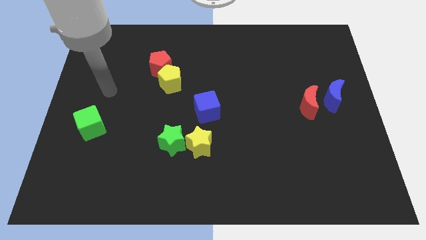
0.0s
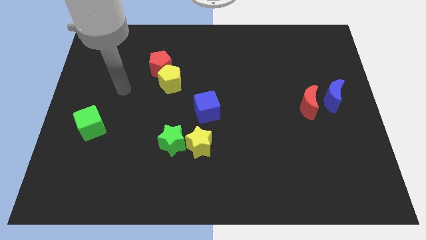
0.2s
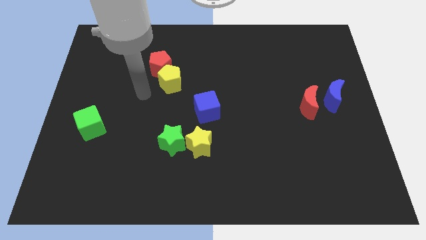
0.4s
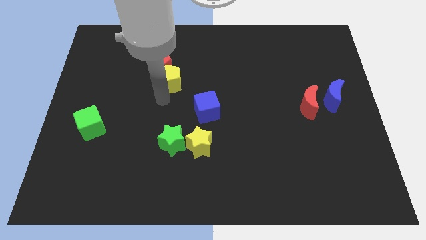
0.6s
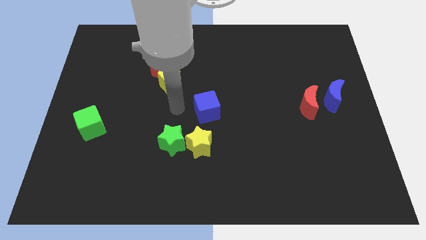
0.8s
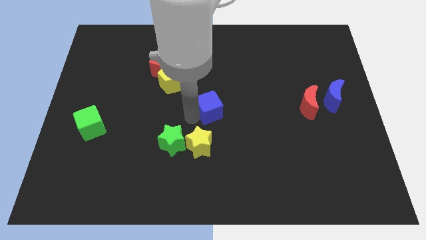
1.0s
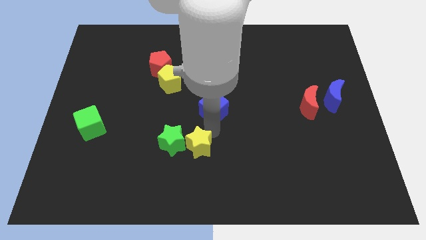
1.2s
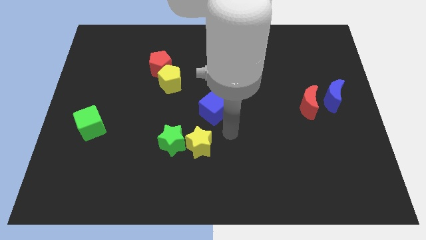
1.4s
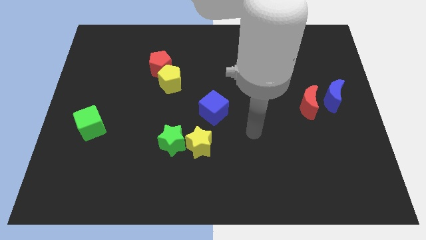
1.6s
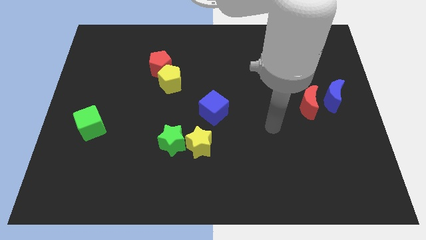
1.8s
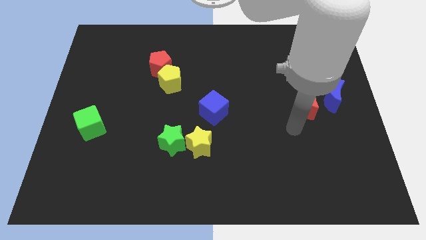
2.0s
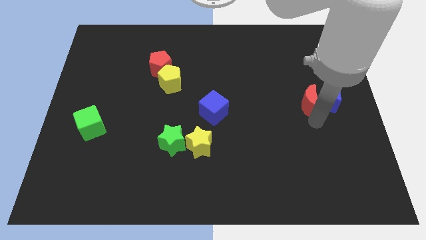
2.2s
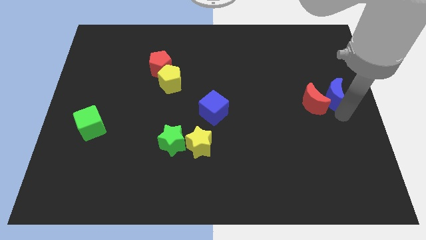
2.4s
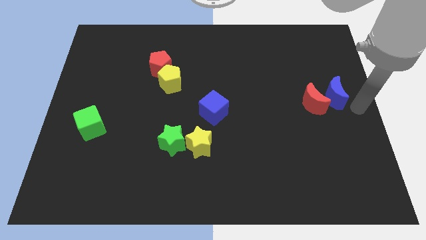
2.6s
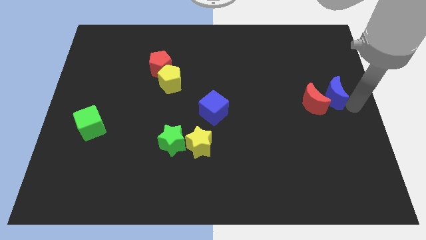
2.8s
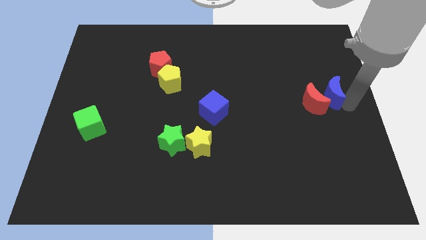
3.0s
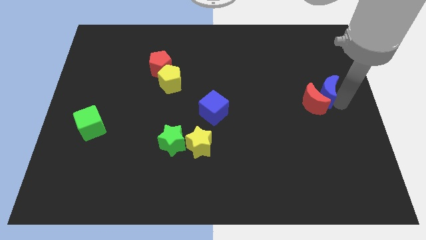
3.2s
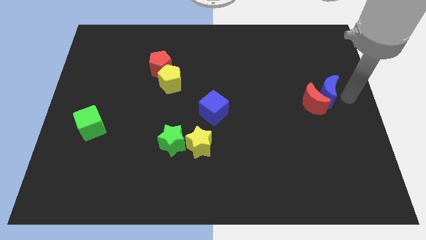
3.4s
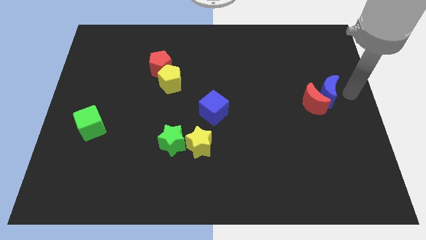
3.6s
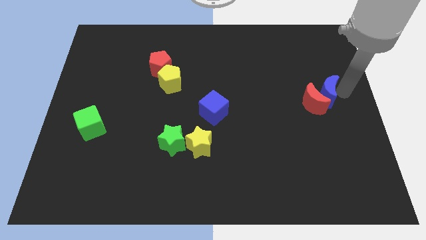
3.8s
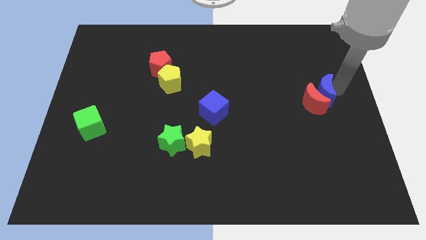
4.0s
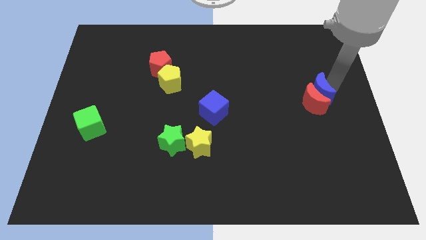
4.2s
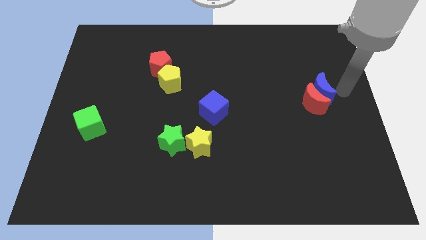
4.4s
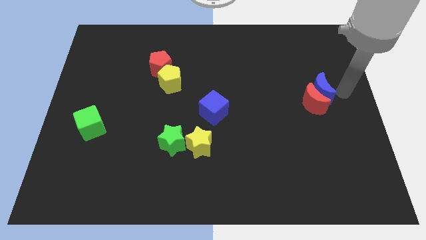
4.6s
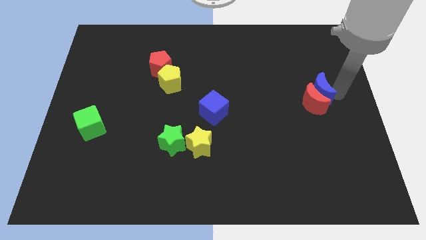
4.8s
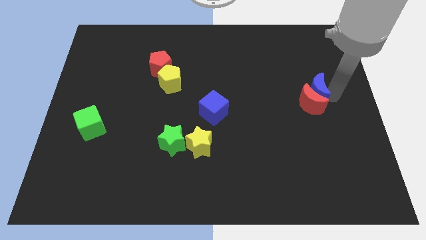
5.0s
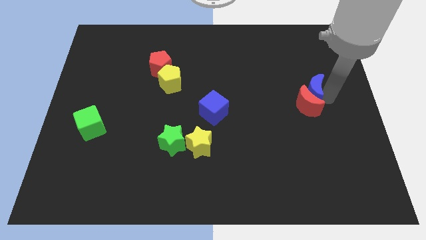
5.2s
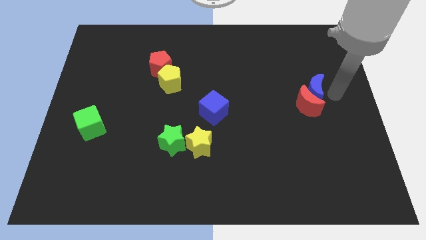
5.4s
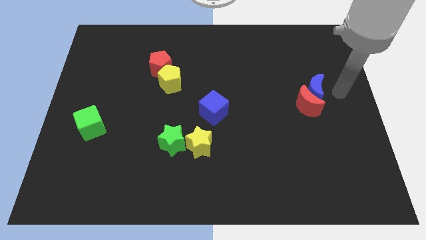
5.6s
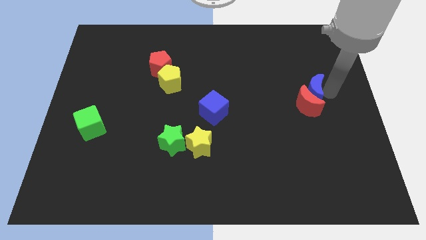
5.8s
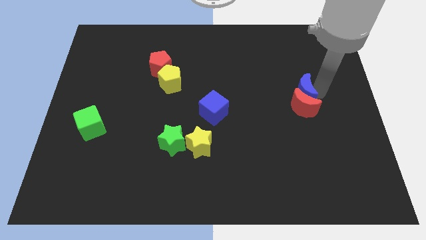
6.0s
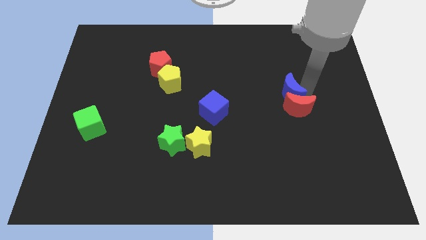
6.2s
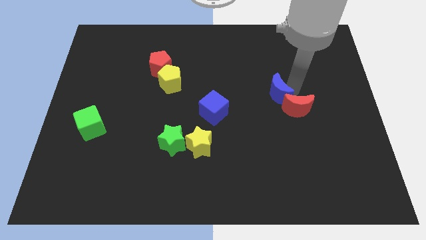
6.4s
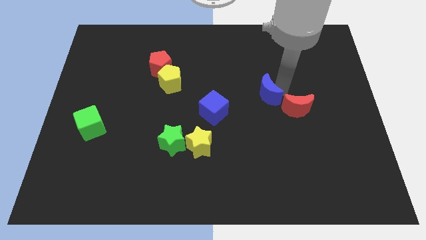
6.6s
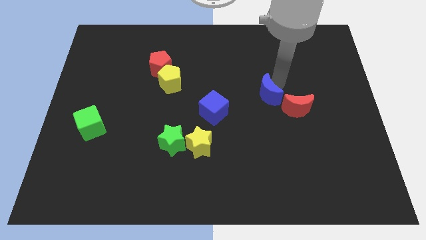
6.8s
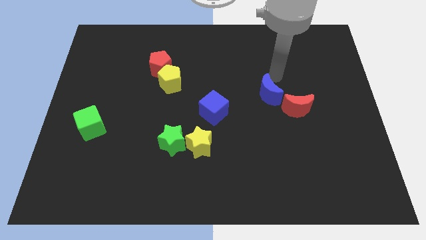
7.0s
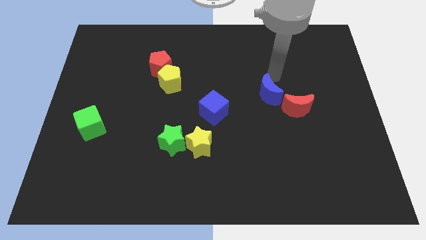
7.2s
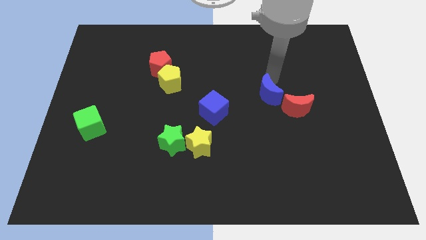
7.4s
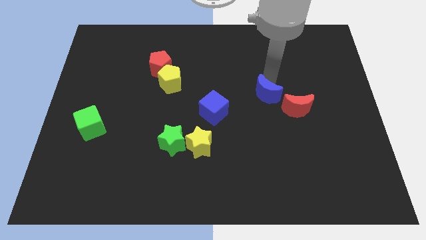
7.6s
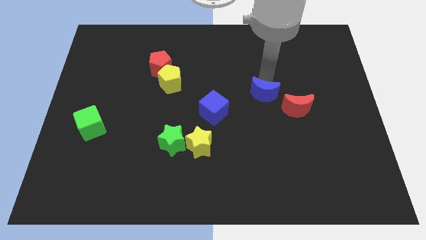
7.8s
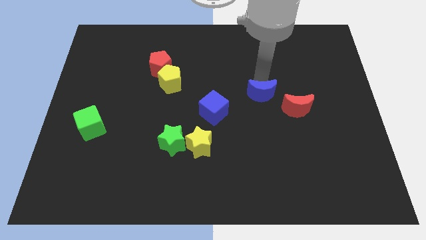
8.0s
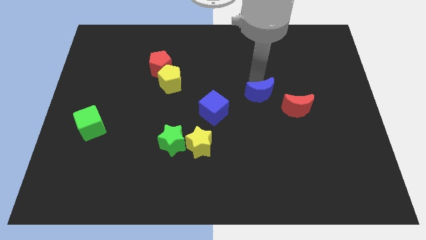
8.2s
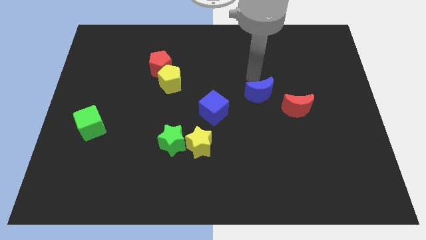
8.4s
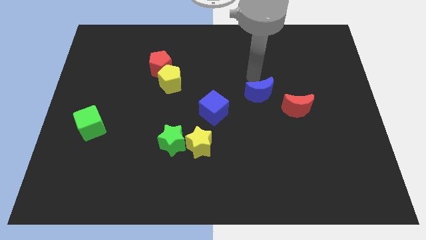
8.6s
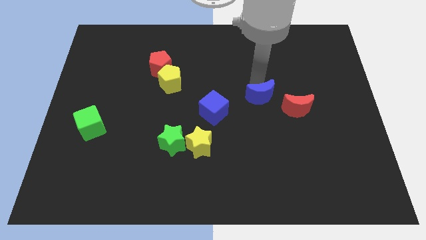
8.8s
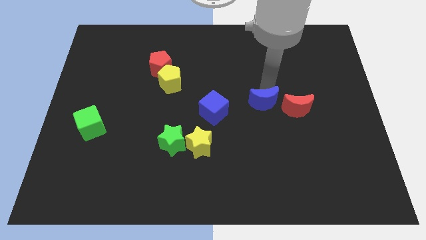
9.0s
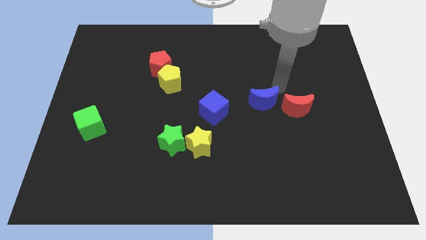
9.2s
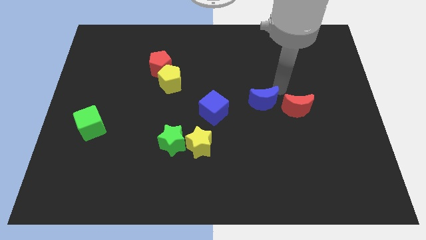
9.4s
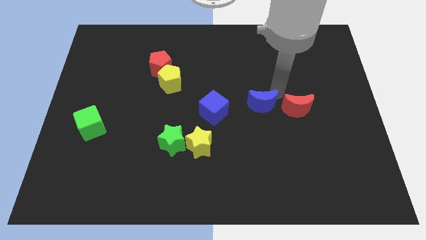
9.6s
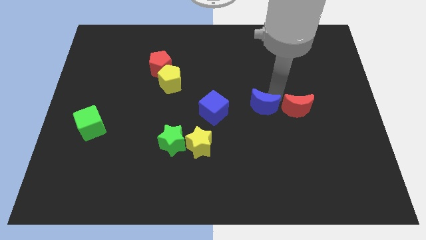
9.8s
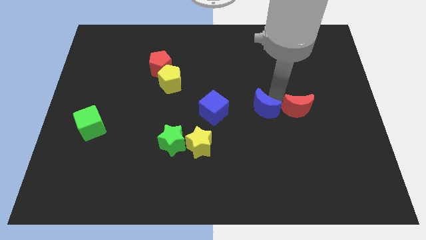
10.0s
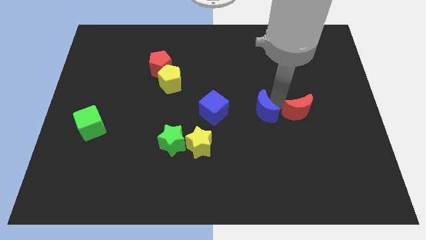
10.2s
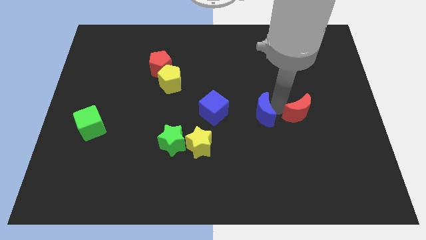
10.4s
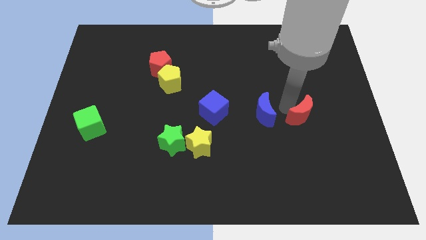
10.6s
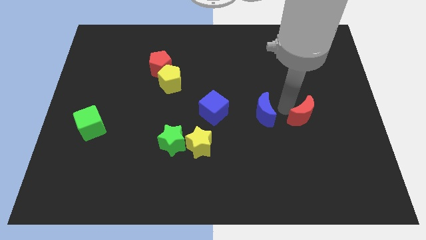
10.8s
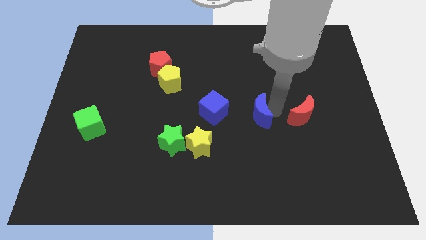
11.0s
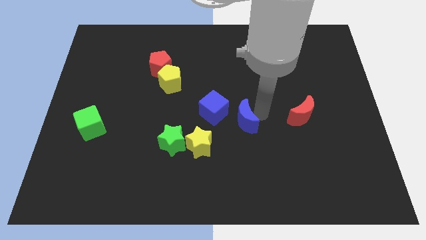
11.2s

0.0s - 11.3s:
move the blue moon diagonally up and to the right of the yellow star

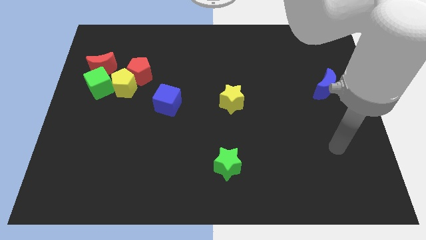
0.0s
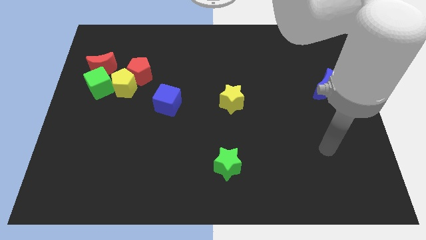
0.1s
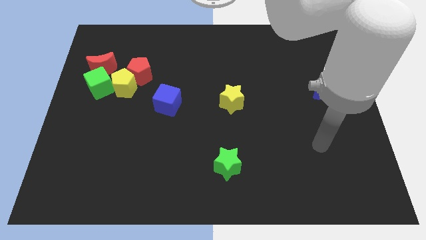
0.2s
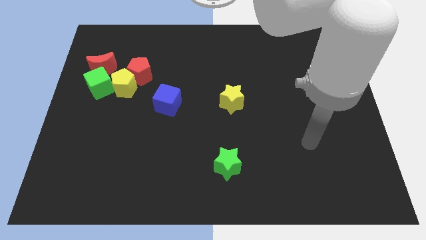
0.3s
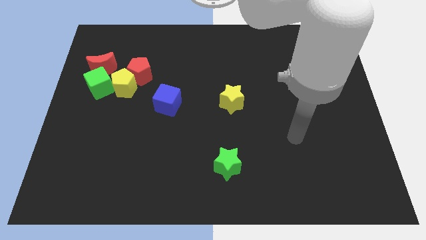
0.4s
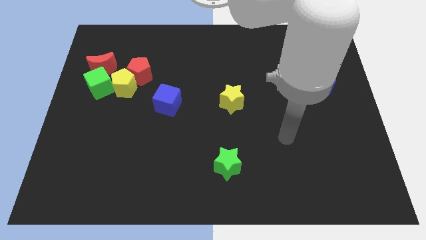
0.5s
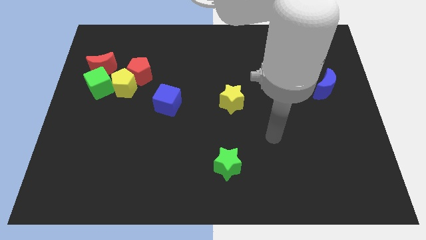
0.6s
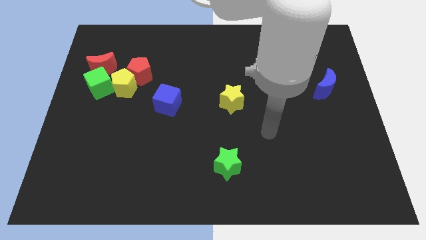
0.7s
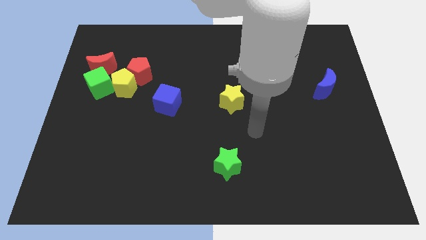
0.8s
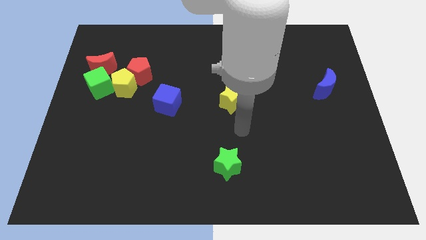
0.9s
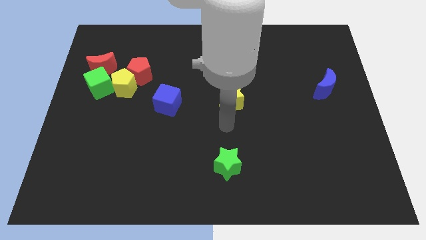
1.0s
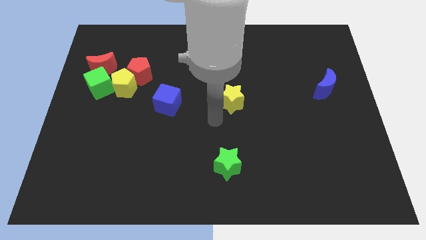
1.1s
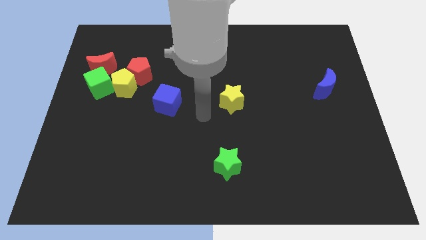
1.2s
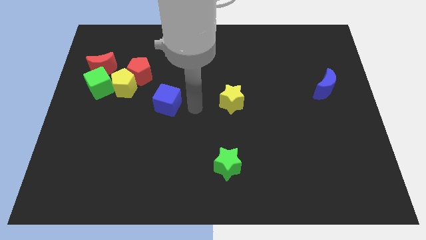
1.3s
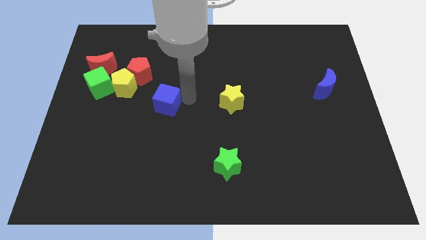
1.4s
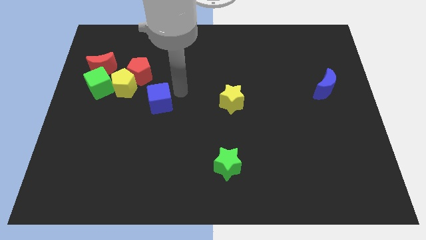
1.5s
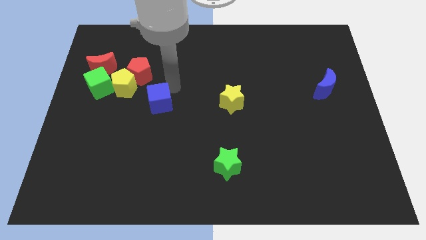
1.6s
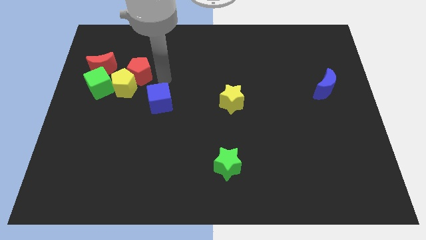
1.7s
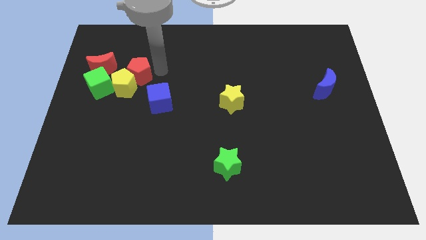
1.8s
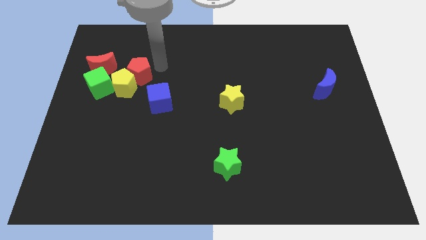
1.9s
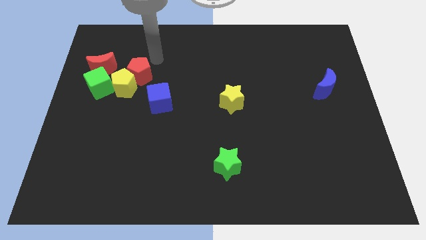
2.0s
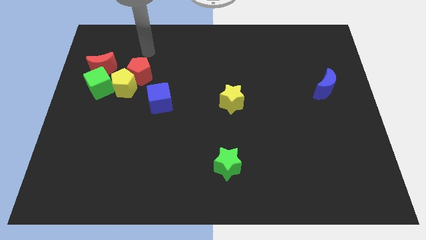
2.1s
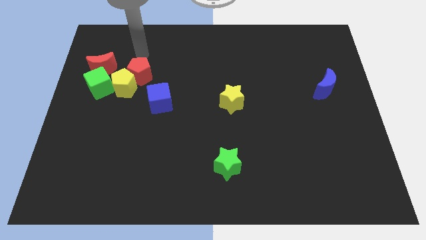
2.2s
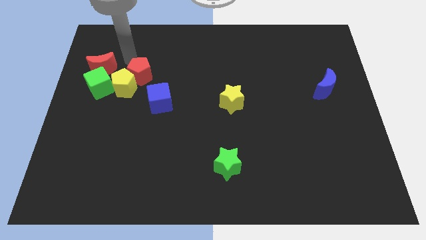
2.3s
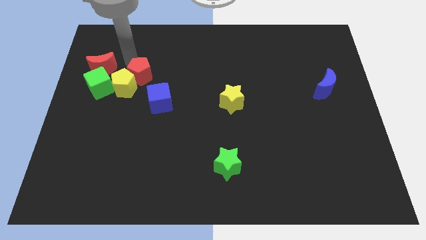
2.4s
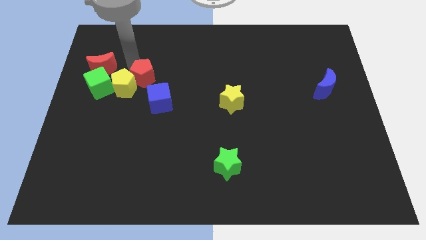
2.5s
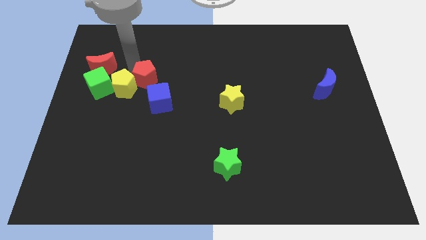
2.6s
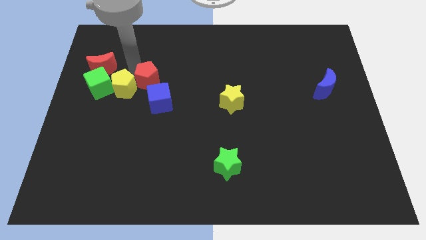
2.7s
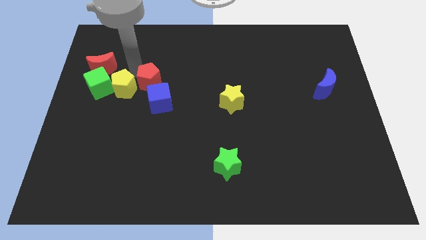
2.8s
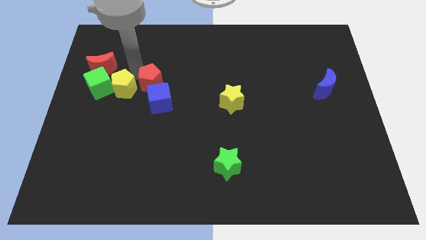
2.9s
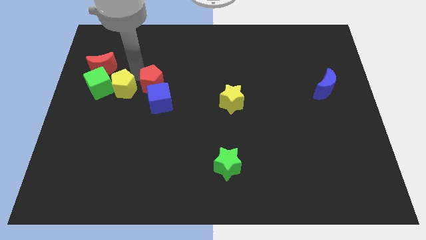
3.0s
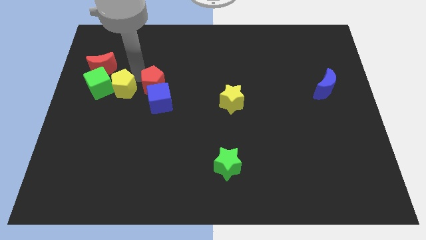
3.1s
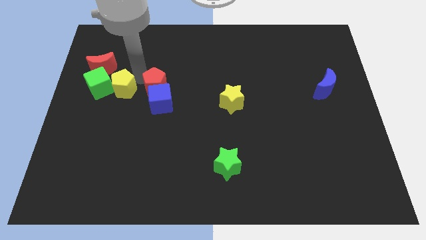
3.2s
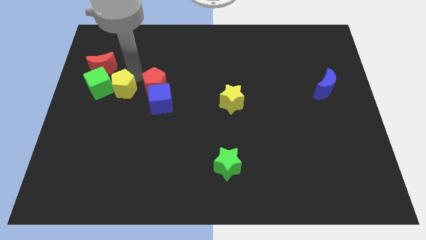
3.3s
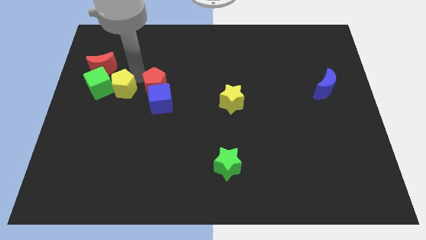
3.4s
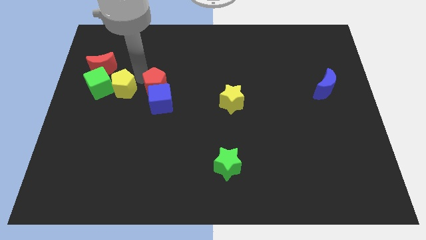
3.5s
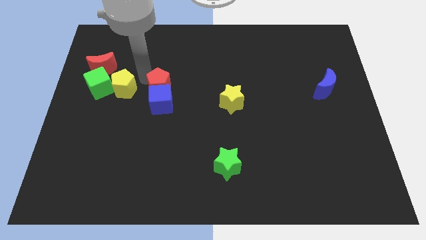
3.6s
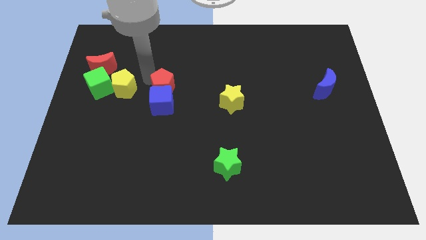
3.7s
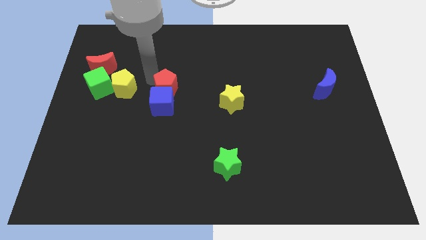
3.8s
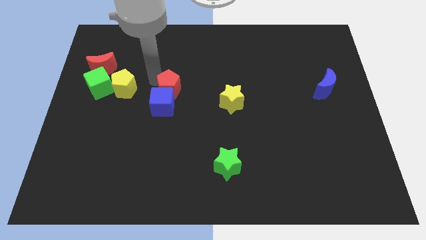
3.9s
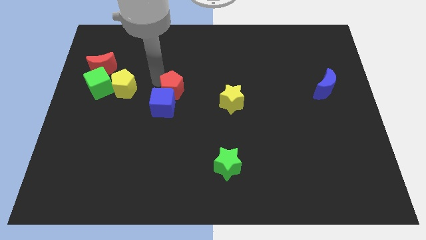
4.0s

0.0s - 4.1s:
move the red pentagon to the left side of the yellow star
